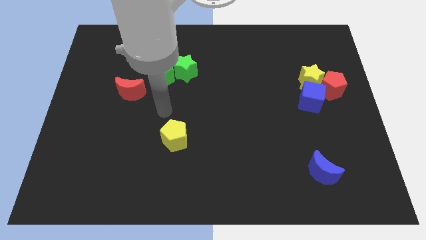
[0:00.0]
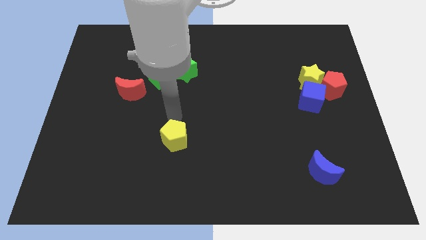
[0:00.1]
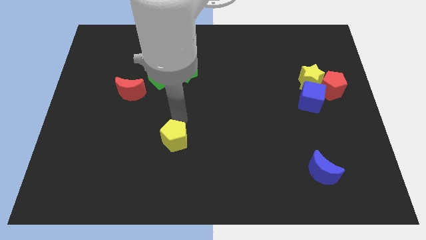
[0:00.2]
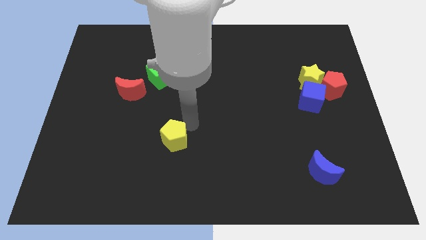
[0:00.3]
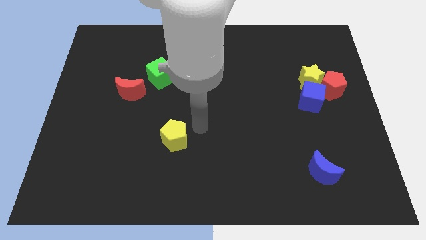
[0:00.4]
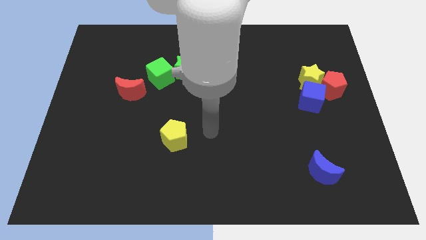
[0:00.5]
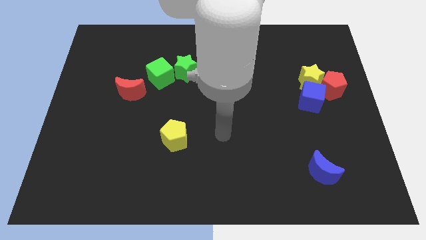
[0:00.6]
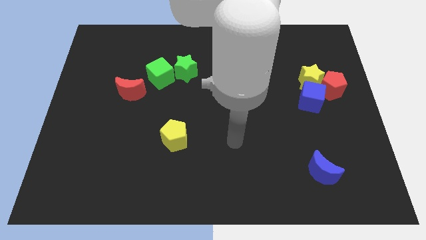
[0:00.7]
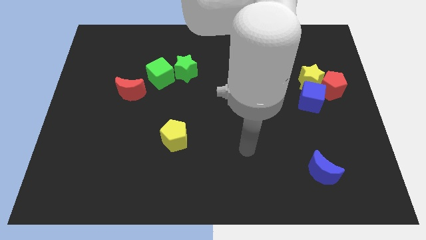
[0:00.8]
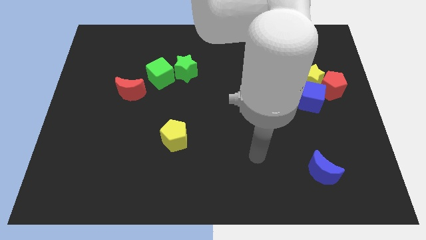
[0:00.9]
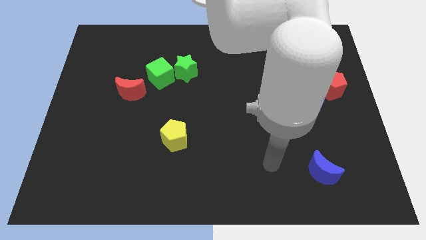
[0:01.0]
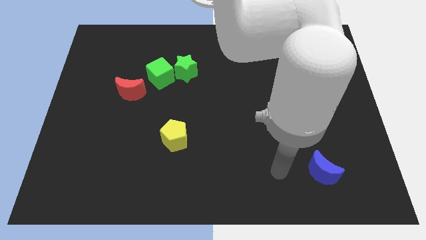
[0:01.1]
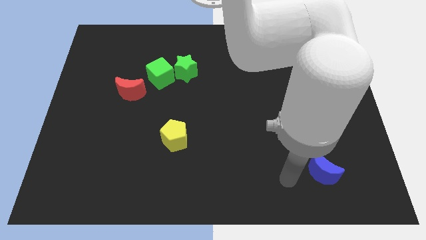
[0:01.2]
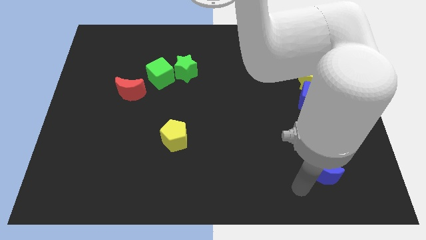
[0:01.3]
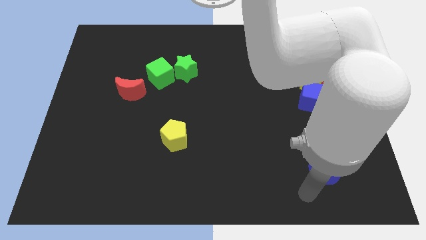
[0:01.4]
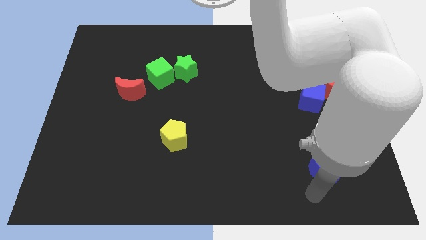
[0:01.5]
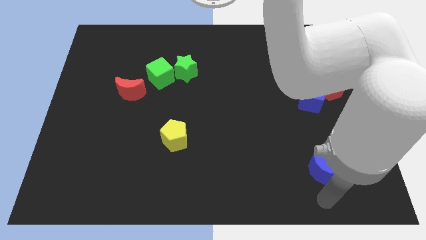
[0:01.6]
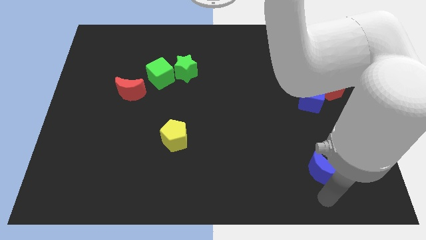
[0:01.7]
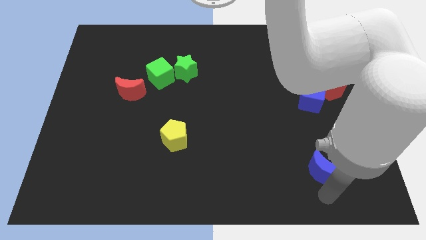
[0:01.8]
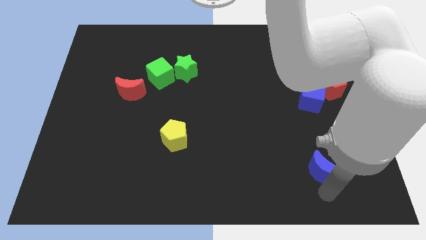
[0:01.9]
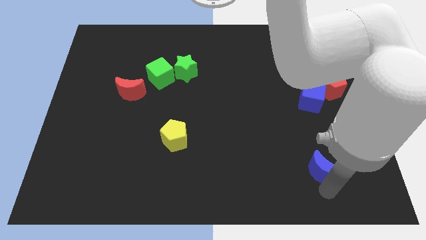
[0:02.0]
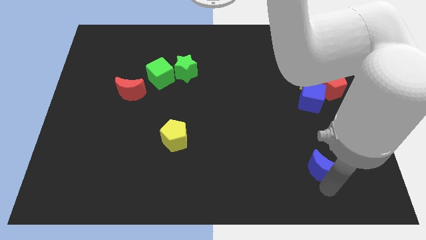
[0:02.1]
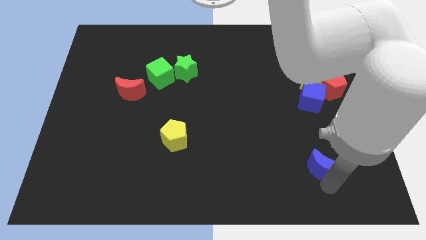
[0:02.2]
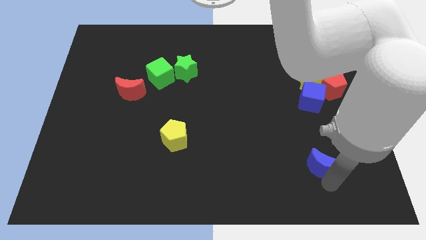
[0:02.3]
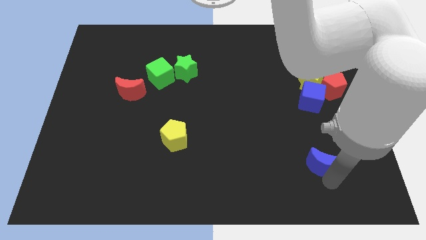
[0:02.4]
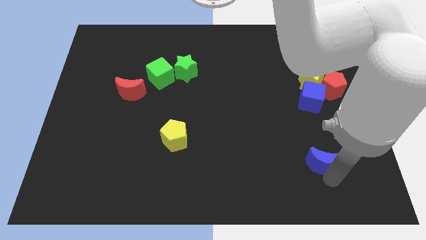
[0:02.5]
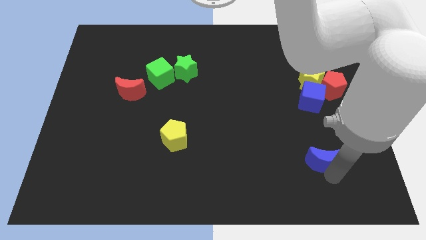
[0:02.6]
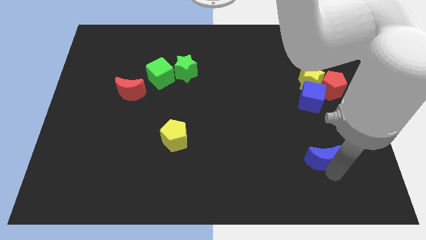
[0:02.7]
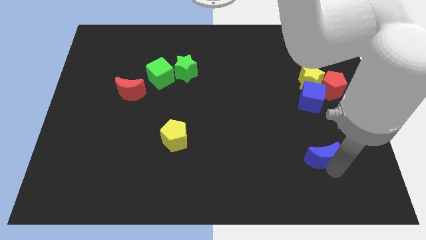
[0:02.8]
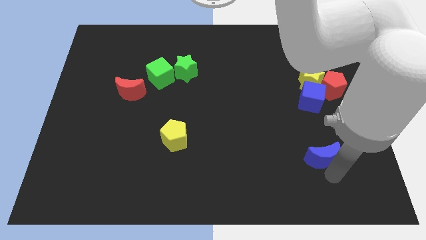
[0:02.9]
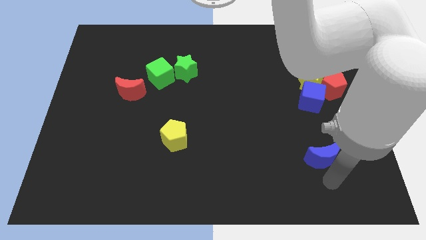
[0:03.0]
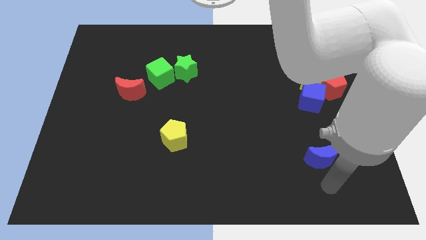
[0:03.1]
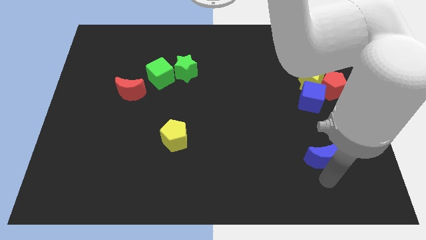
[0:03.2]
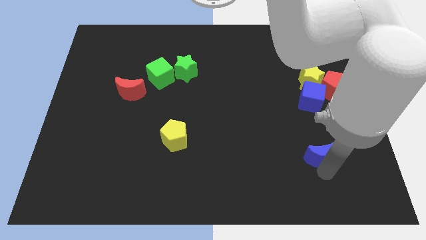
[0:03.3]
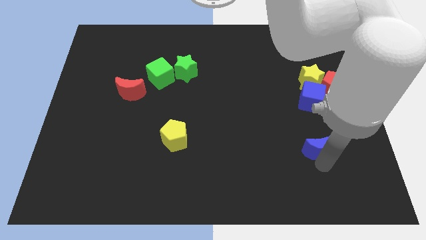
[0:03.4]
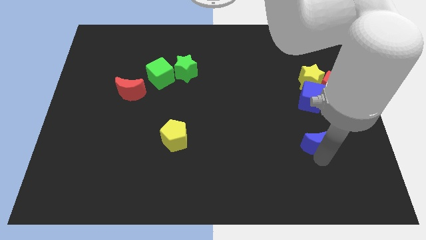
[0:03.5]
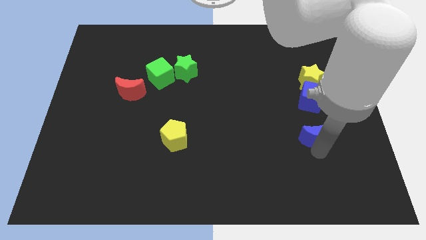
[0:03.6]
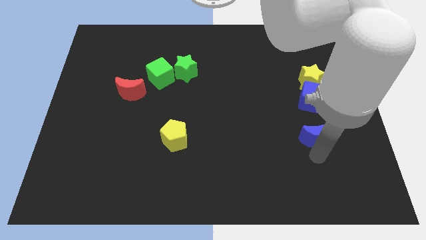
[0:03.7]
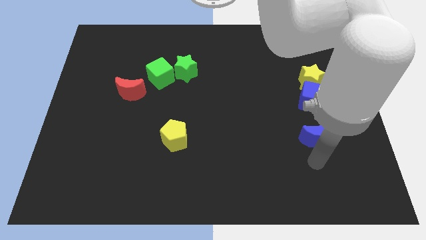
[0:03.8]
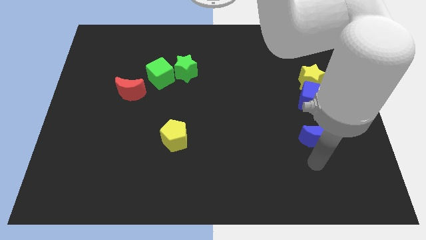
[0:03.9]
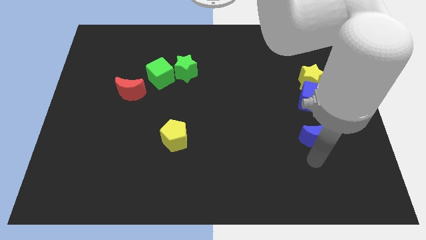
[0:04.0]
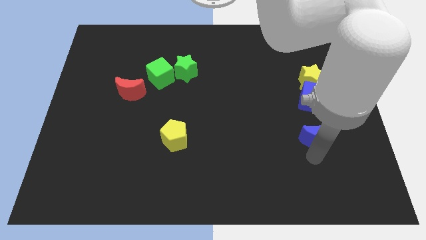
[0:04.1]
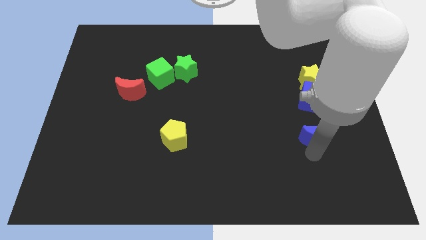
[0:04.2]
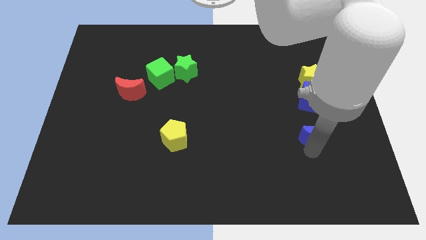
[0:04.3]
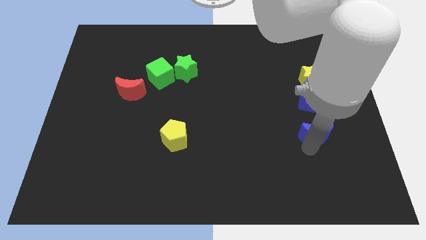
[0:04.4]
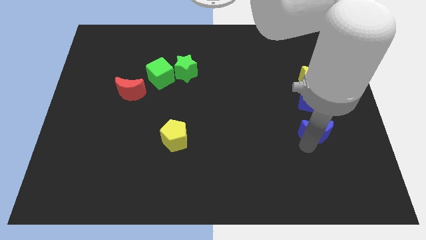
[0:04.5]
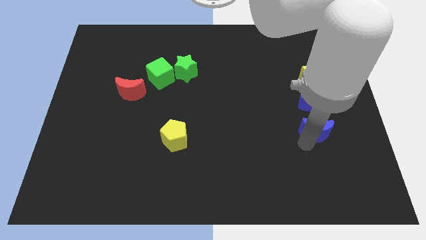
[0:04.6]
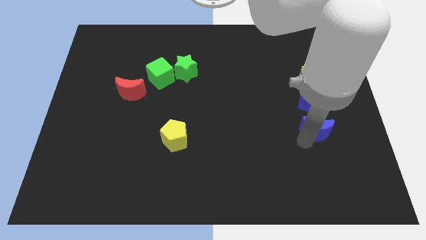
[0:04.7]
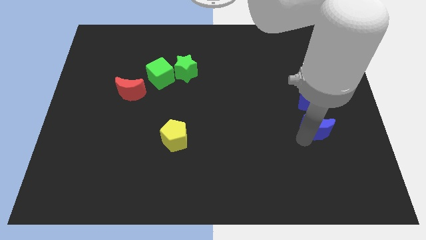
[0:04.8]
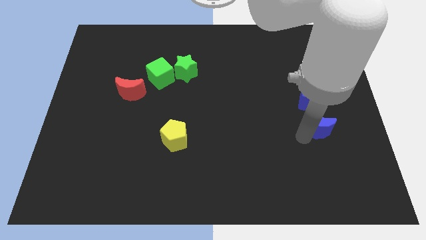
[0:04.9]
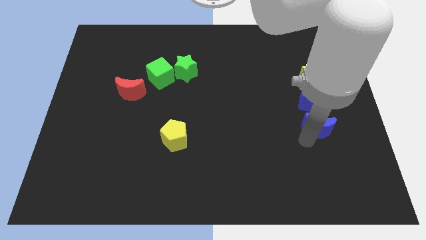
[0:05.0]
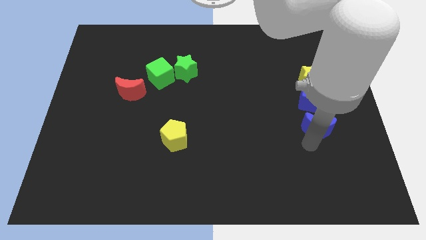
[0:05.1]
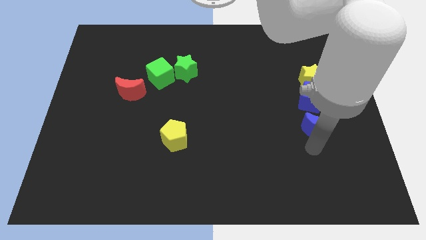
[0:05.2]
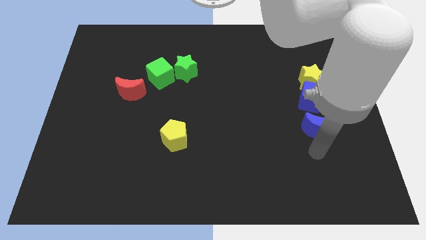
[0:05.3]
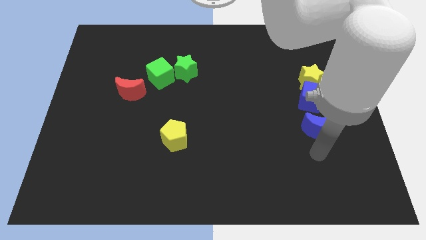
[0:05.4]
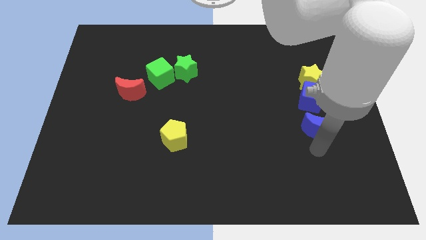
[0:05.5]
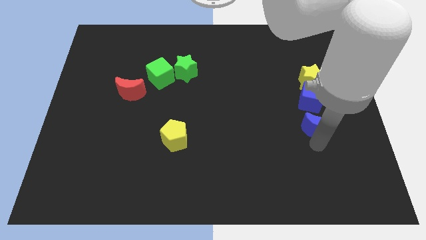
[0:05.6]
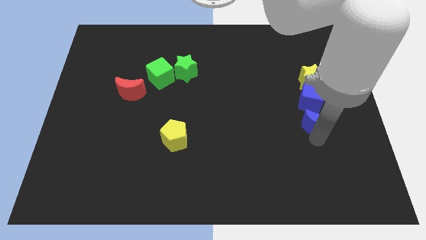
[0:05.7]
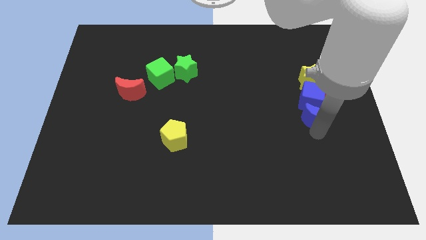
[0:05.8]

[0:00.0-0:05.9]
push the blue moon to the blue cube

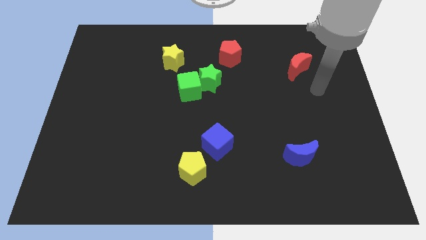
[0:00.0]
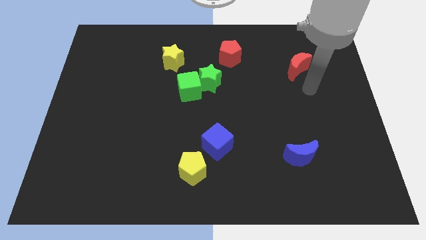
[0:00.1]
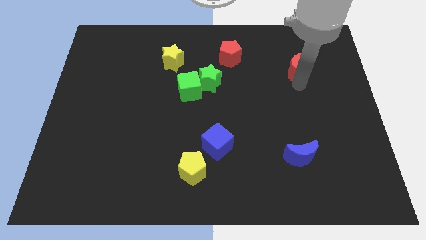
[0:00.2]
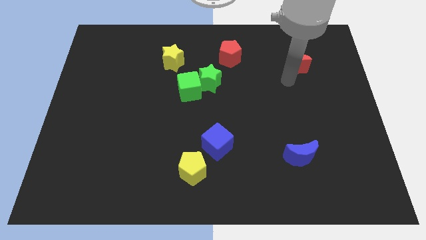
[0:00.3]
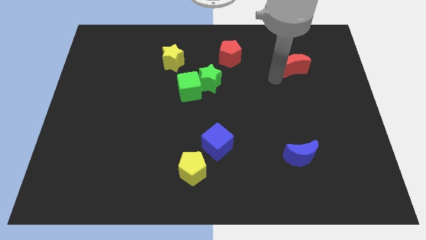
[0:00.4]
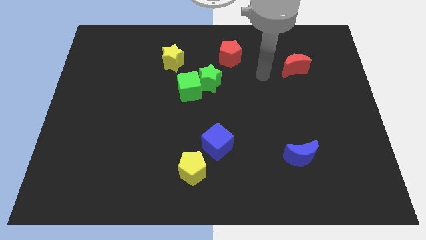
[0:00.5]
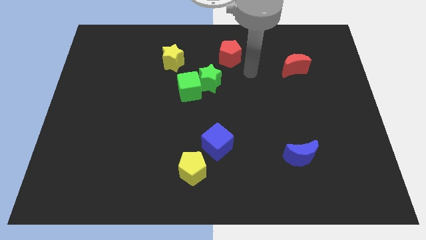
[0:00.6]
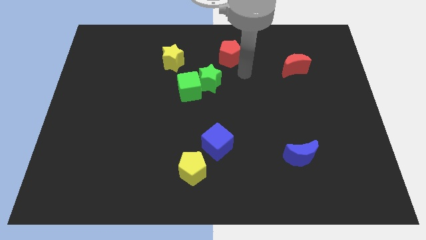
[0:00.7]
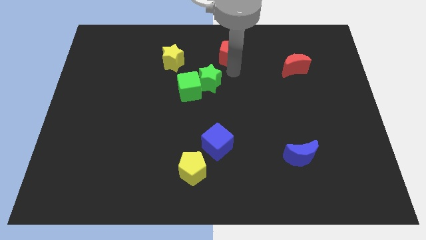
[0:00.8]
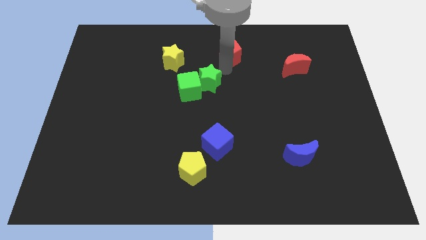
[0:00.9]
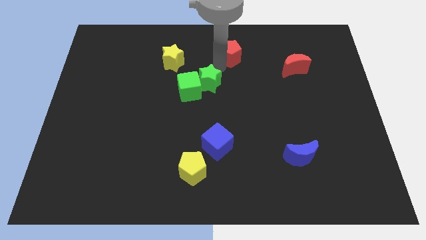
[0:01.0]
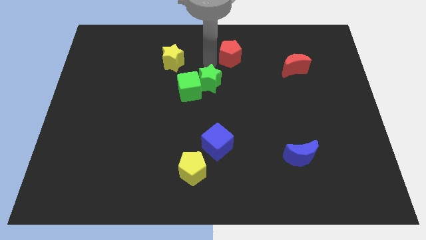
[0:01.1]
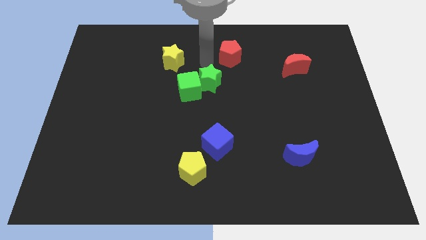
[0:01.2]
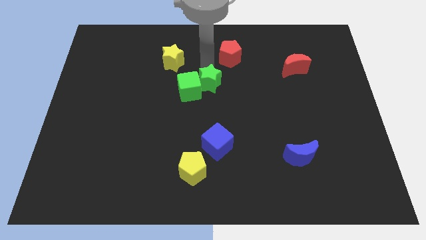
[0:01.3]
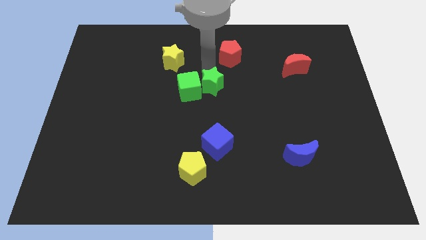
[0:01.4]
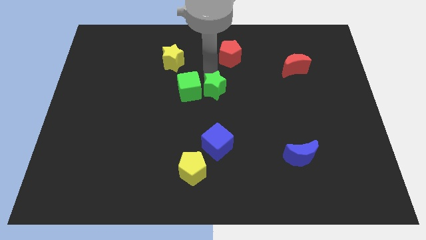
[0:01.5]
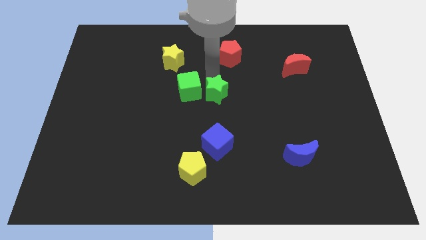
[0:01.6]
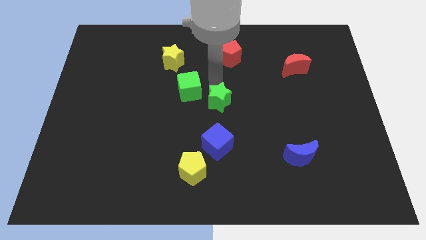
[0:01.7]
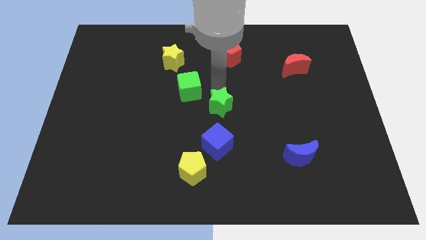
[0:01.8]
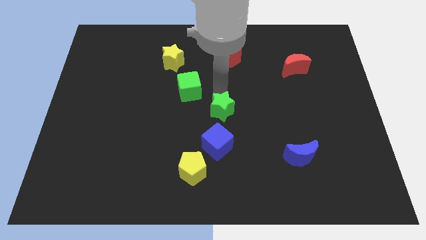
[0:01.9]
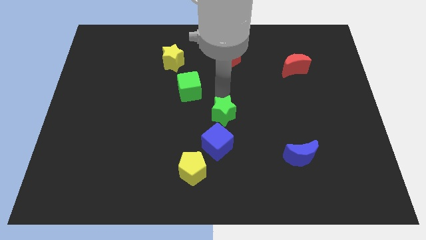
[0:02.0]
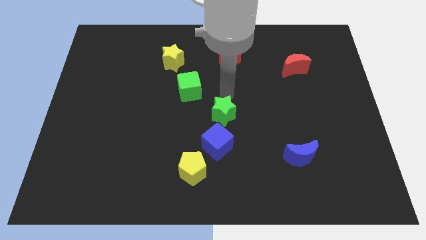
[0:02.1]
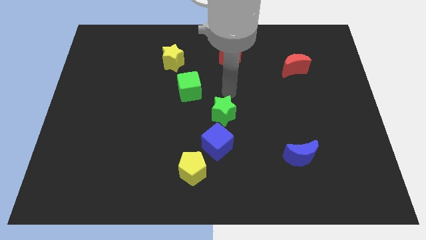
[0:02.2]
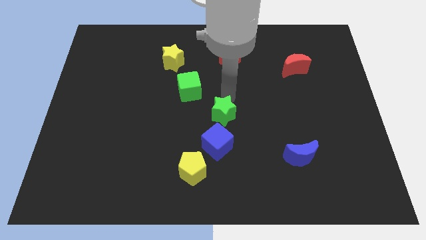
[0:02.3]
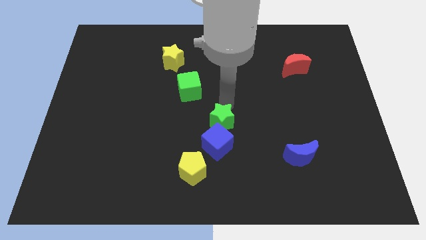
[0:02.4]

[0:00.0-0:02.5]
put the green star close to the blue cube
